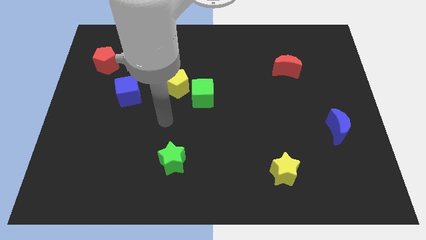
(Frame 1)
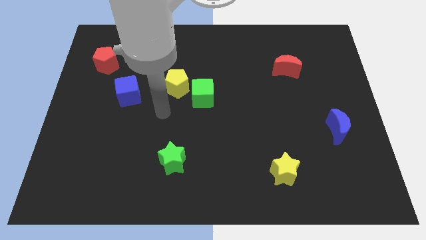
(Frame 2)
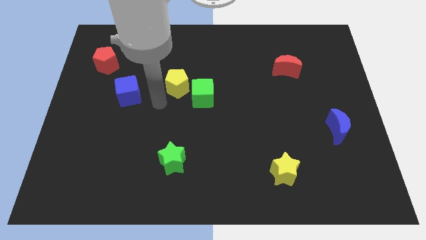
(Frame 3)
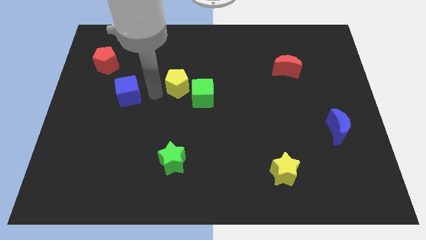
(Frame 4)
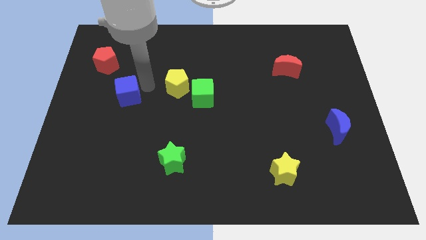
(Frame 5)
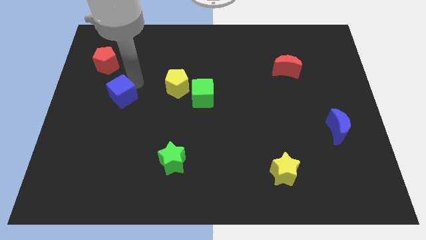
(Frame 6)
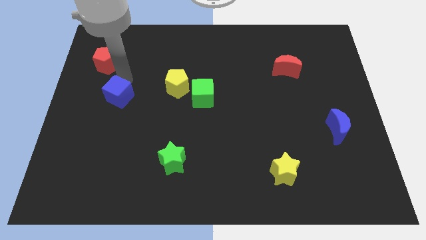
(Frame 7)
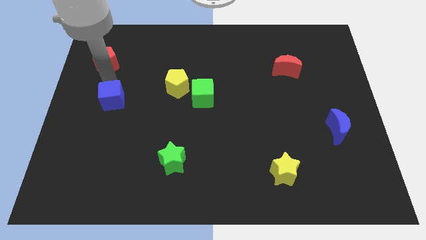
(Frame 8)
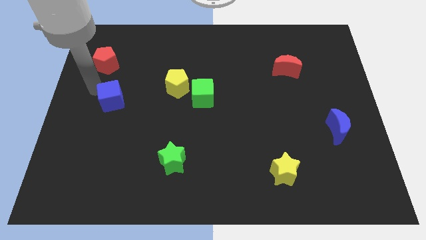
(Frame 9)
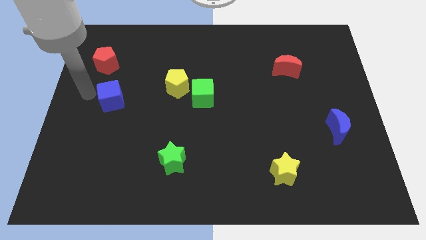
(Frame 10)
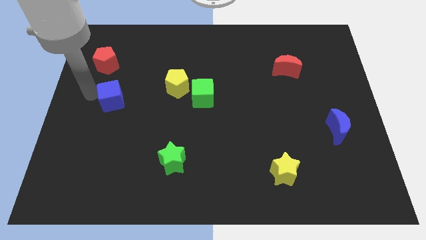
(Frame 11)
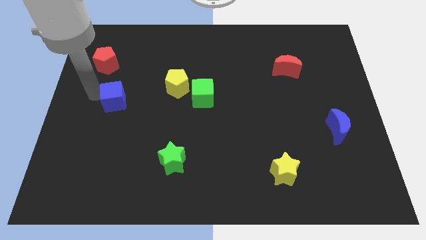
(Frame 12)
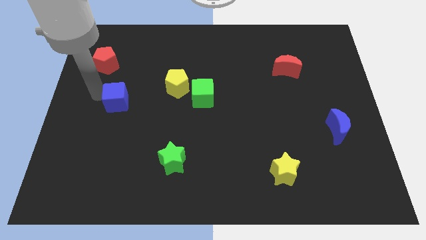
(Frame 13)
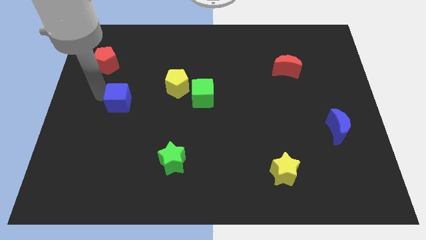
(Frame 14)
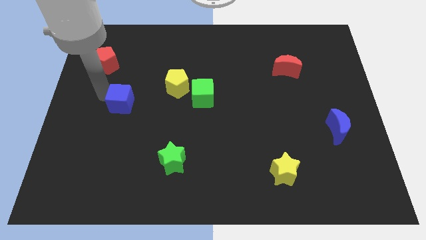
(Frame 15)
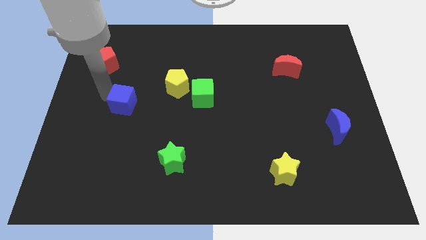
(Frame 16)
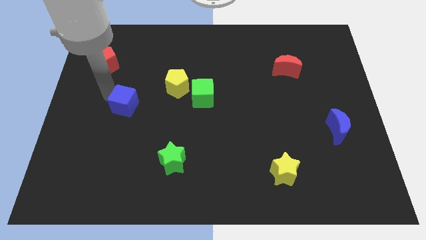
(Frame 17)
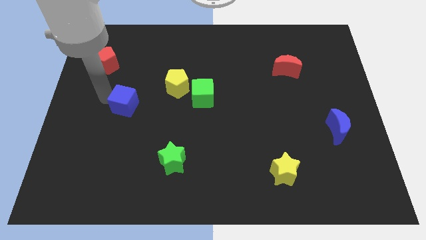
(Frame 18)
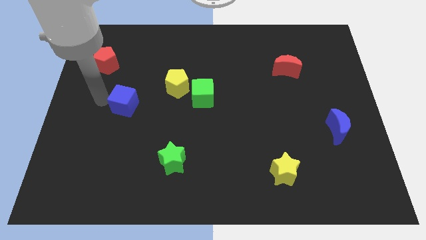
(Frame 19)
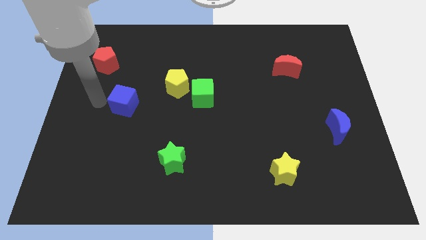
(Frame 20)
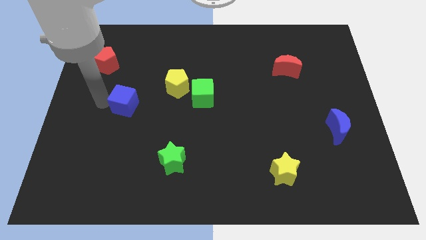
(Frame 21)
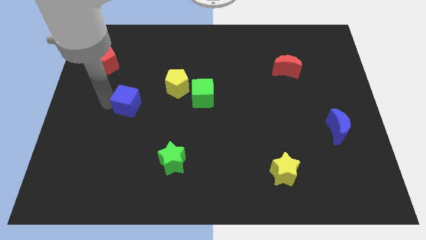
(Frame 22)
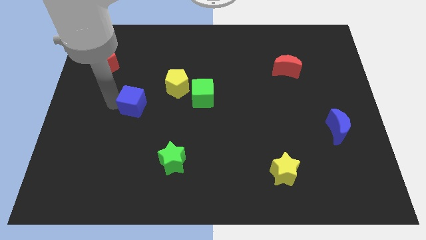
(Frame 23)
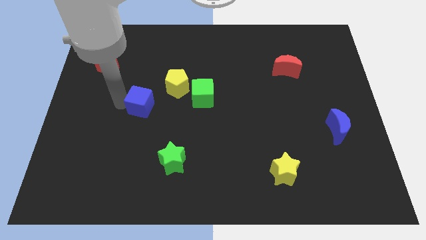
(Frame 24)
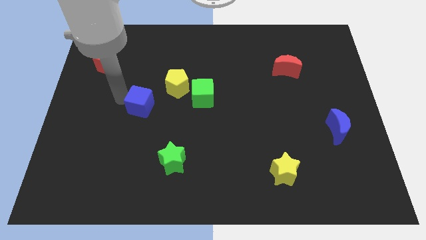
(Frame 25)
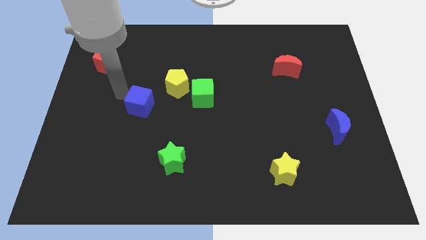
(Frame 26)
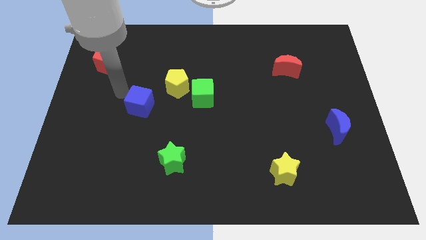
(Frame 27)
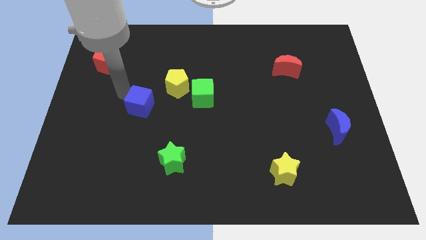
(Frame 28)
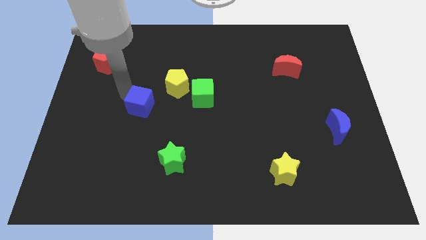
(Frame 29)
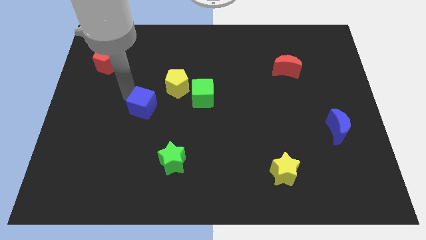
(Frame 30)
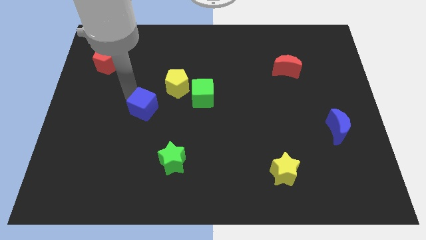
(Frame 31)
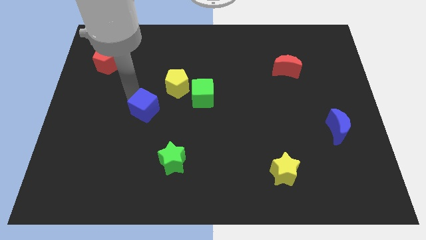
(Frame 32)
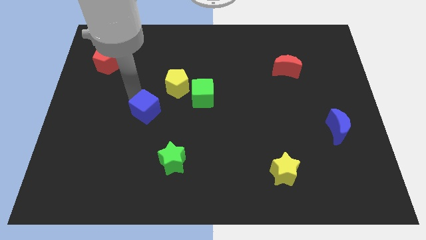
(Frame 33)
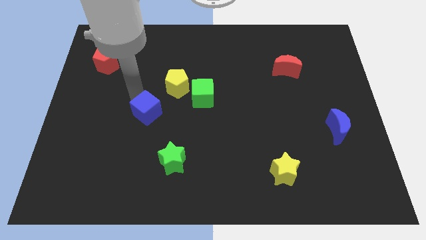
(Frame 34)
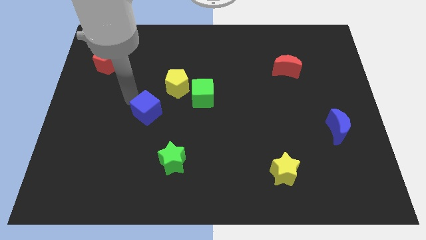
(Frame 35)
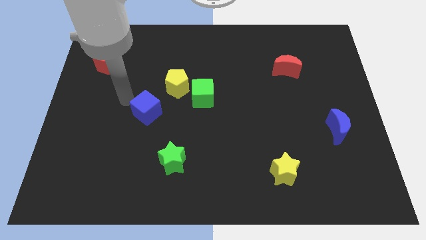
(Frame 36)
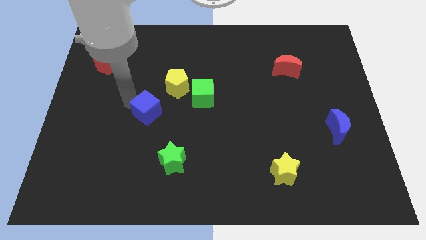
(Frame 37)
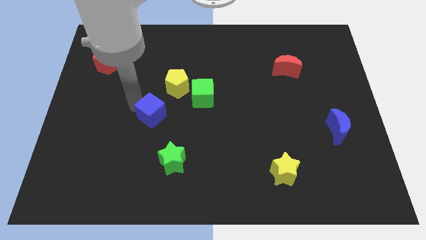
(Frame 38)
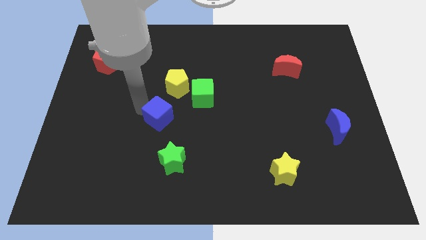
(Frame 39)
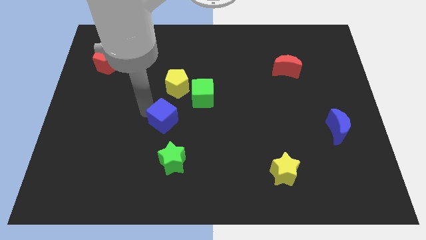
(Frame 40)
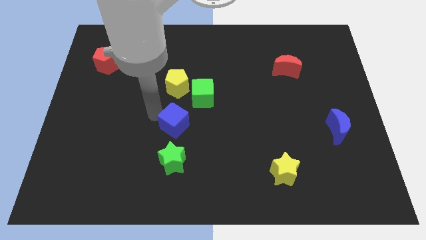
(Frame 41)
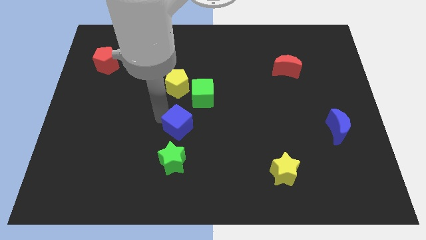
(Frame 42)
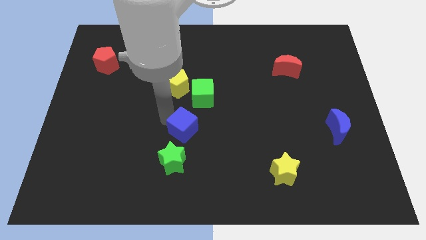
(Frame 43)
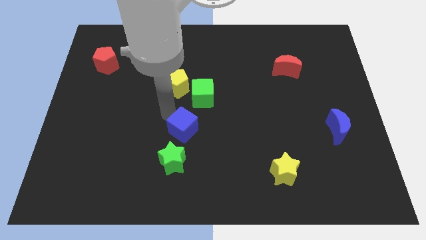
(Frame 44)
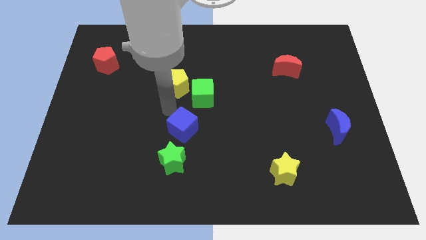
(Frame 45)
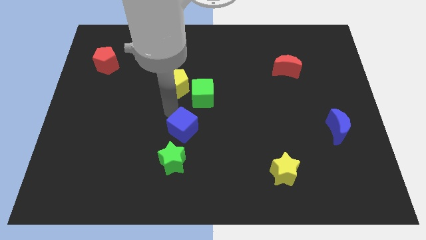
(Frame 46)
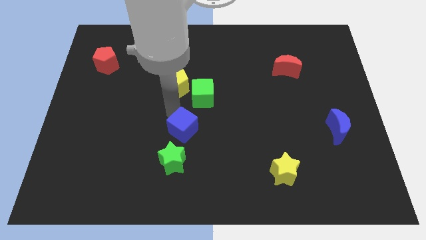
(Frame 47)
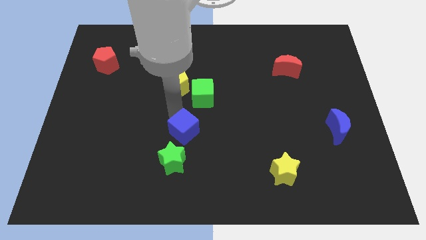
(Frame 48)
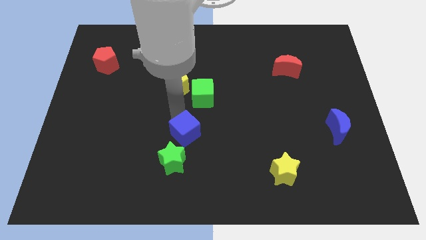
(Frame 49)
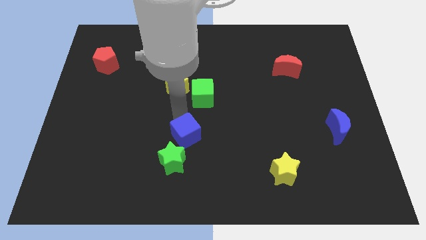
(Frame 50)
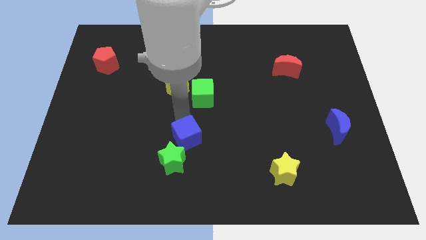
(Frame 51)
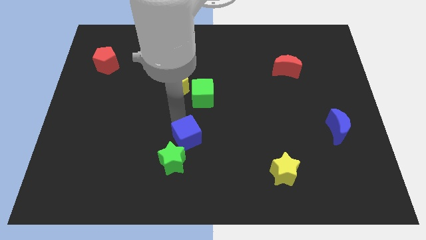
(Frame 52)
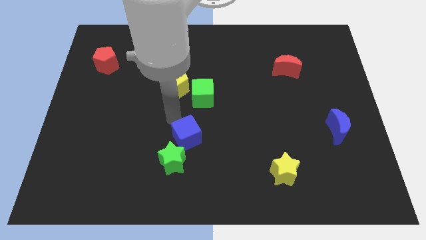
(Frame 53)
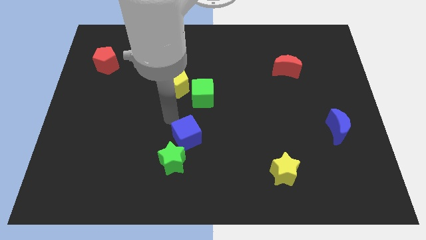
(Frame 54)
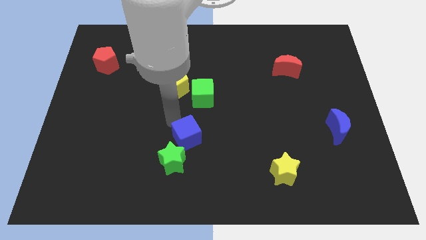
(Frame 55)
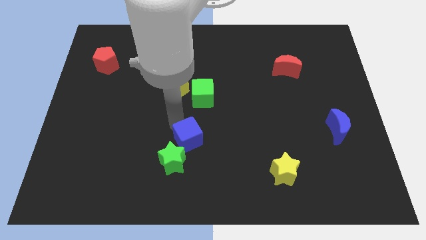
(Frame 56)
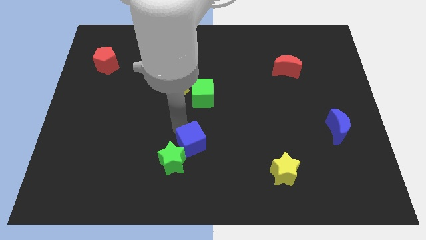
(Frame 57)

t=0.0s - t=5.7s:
slide the blue cube downwards and to the right

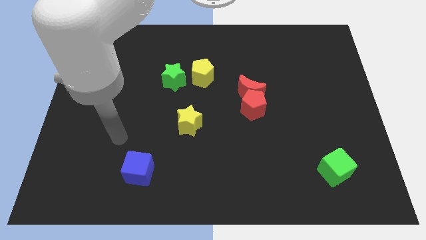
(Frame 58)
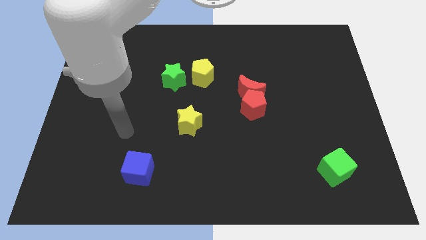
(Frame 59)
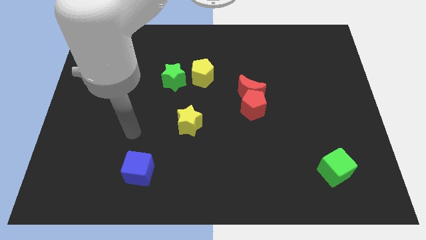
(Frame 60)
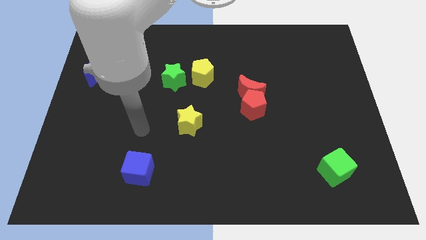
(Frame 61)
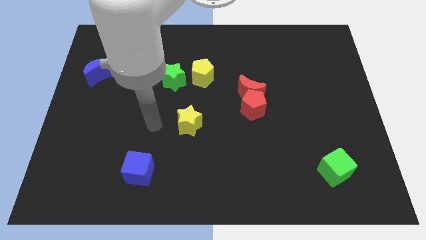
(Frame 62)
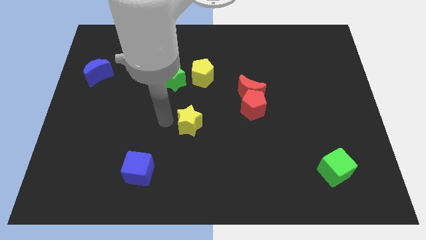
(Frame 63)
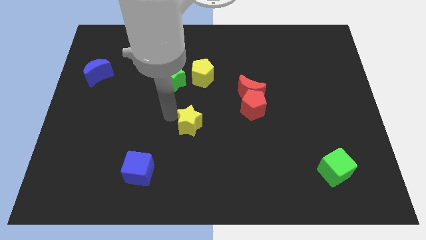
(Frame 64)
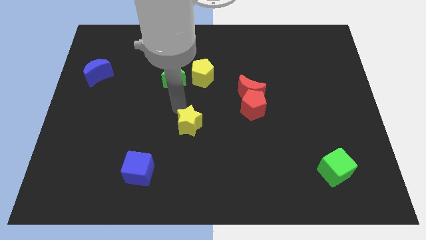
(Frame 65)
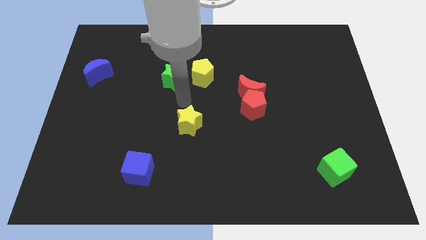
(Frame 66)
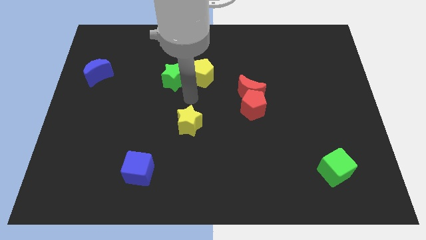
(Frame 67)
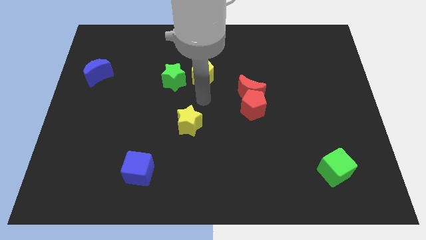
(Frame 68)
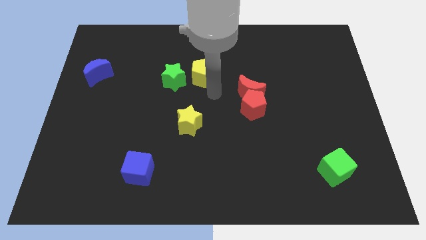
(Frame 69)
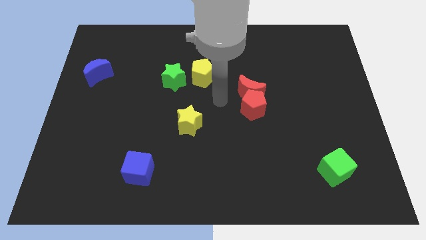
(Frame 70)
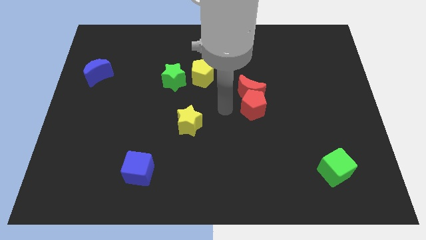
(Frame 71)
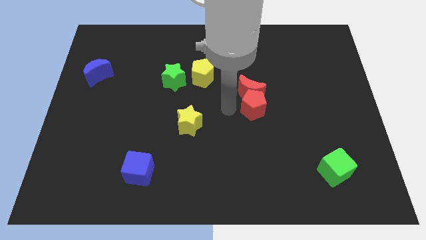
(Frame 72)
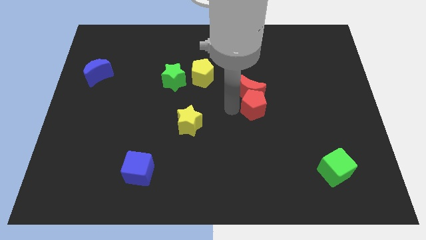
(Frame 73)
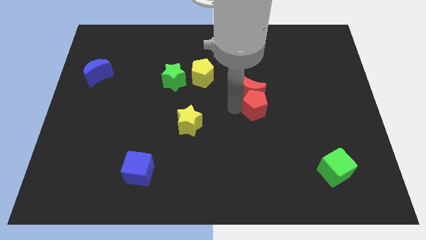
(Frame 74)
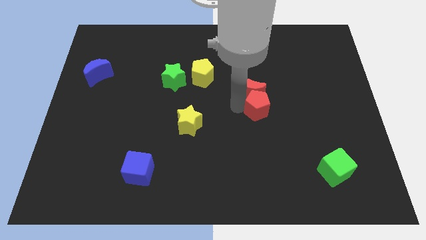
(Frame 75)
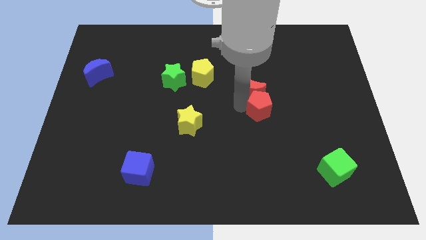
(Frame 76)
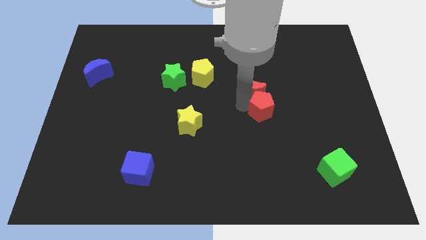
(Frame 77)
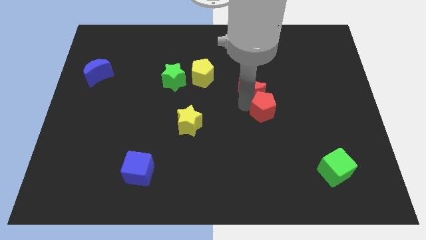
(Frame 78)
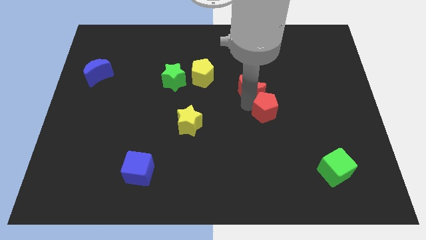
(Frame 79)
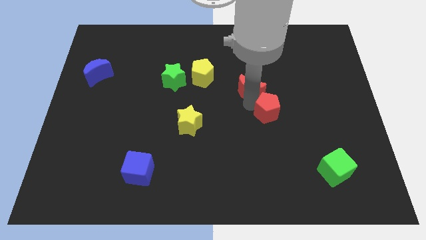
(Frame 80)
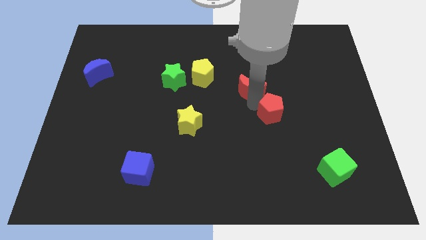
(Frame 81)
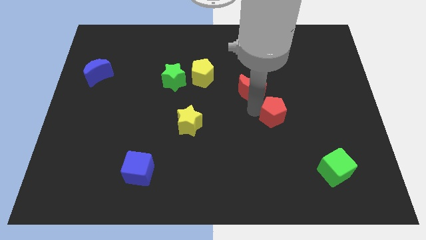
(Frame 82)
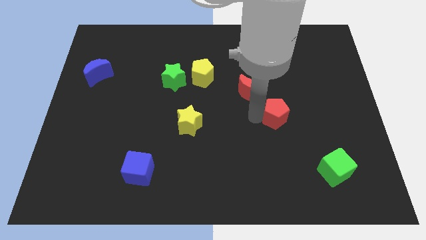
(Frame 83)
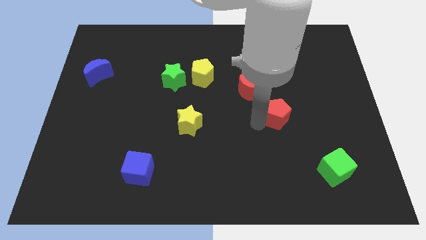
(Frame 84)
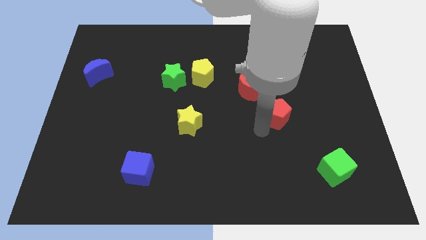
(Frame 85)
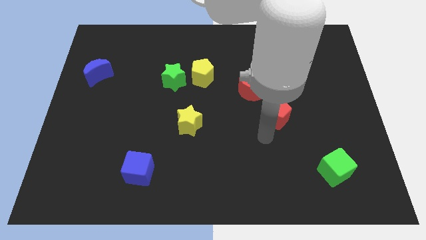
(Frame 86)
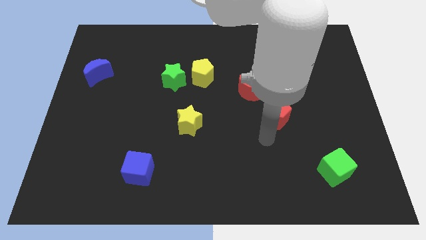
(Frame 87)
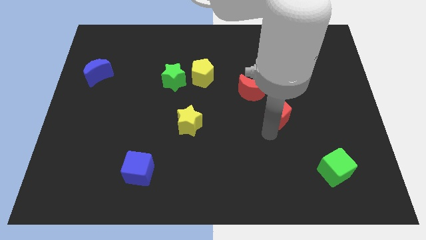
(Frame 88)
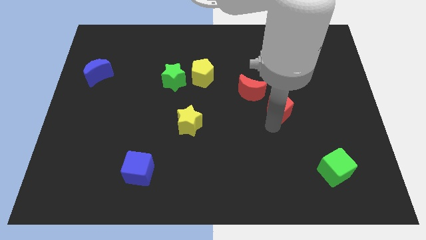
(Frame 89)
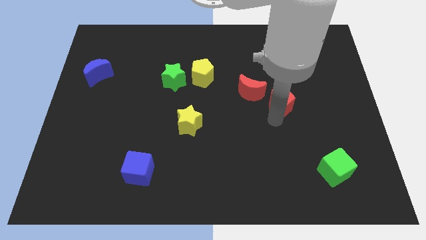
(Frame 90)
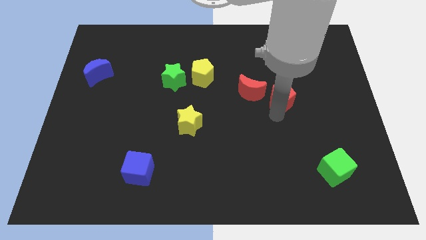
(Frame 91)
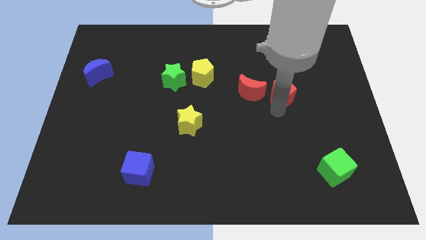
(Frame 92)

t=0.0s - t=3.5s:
move the red pentagon diagonally up and right a little
